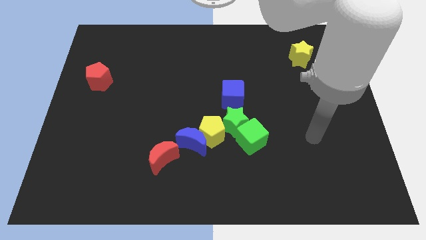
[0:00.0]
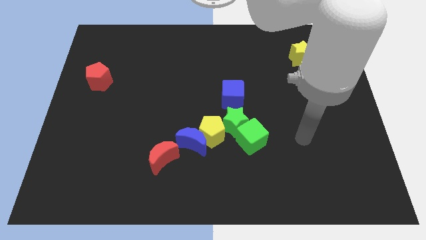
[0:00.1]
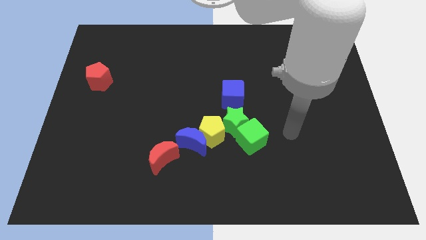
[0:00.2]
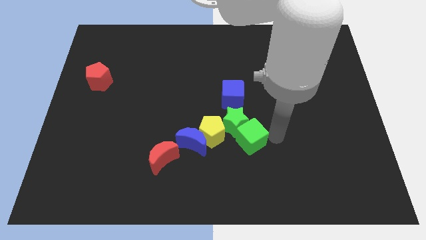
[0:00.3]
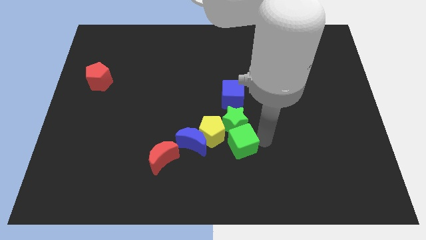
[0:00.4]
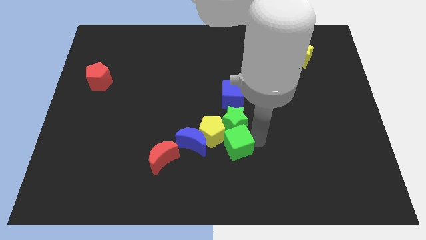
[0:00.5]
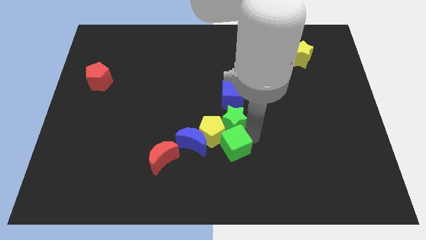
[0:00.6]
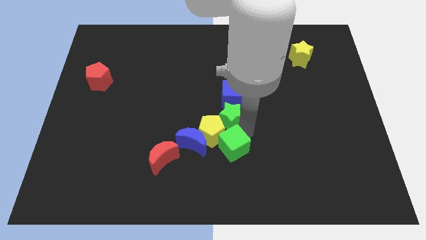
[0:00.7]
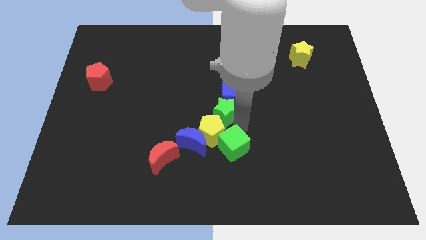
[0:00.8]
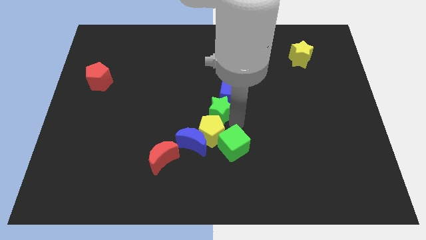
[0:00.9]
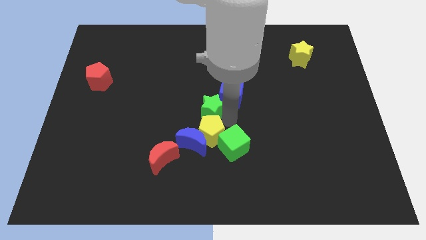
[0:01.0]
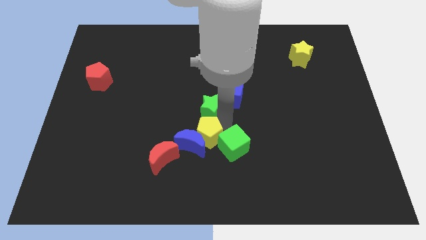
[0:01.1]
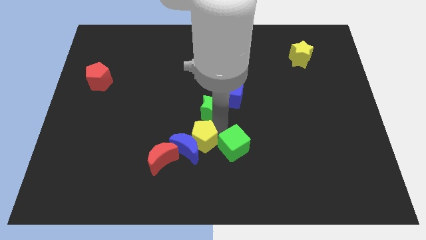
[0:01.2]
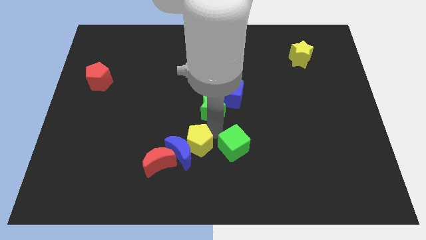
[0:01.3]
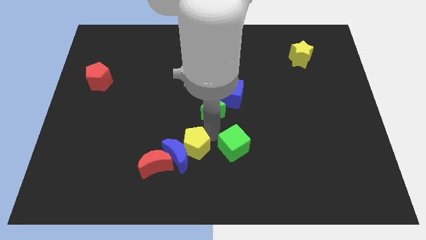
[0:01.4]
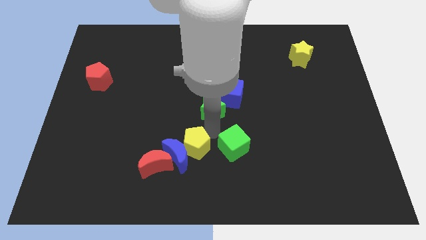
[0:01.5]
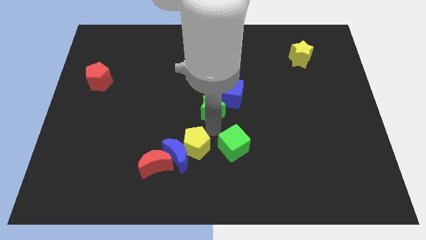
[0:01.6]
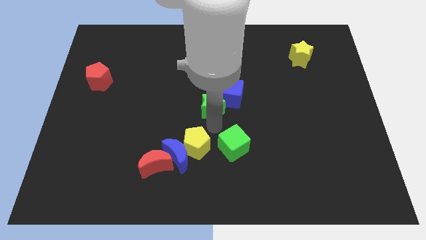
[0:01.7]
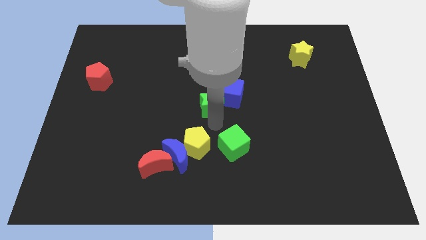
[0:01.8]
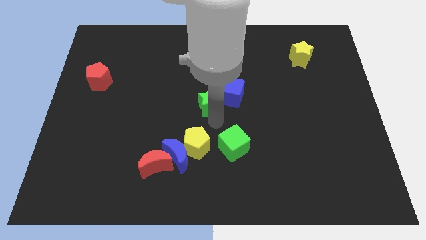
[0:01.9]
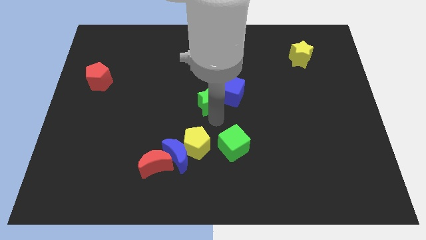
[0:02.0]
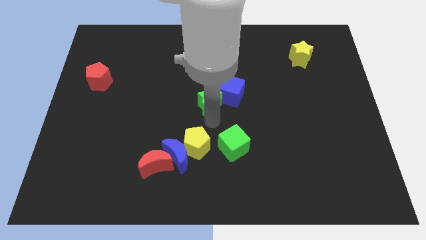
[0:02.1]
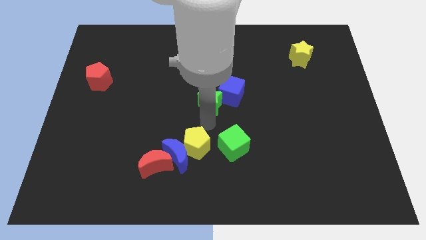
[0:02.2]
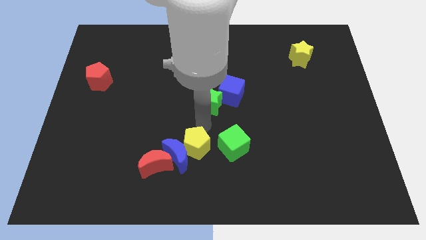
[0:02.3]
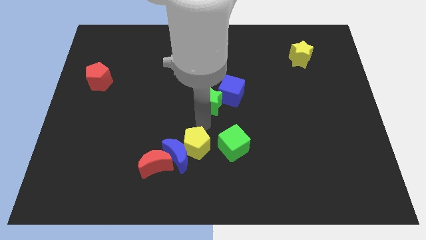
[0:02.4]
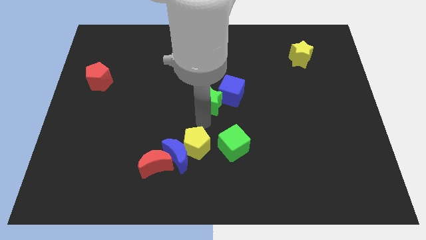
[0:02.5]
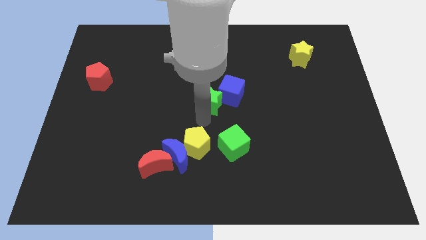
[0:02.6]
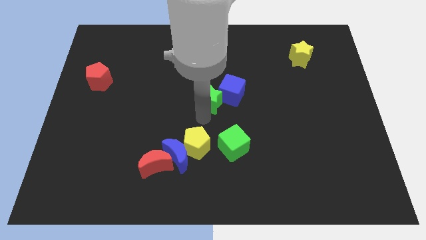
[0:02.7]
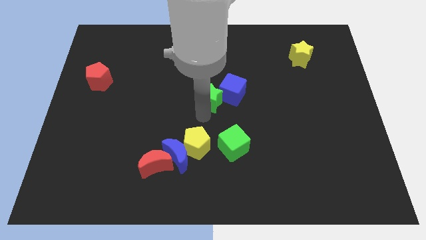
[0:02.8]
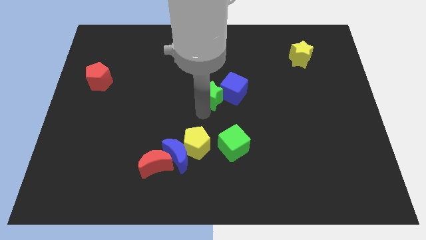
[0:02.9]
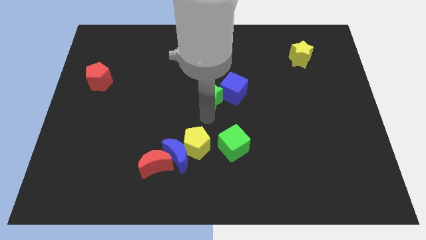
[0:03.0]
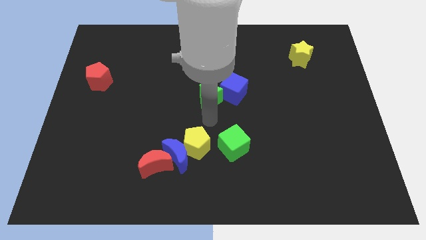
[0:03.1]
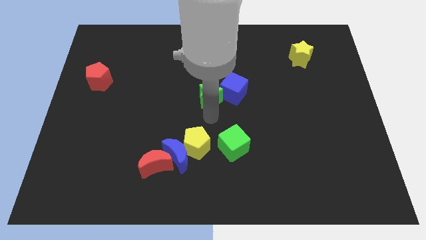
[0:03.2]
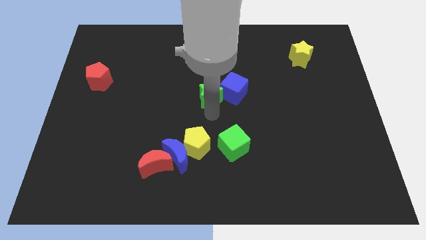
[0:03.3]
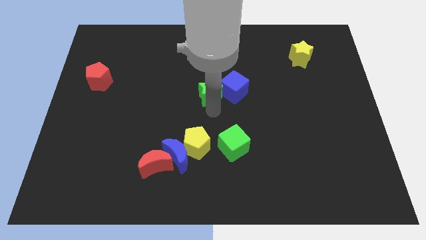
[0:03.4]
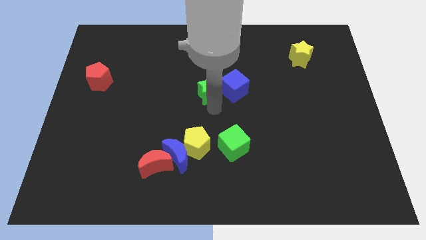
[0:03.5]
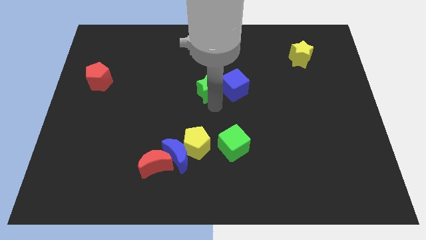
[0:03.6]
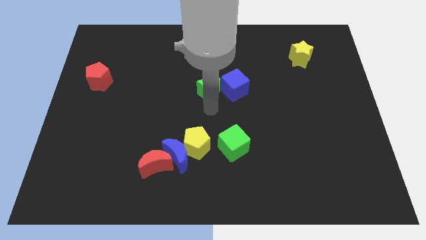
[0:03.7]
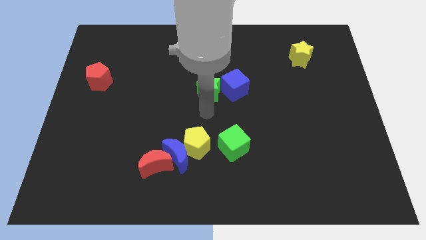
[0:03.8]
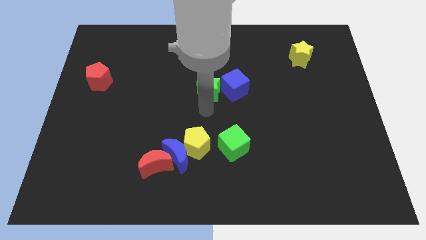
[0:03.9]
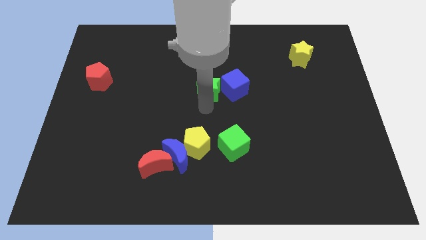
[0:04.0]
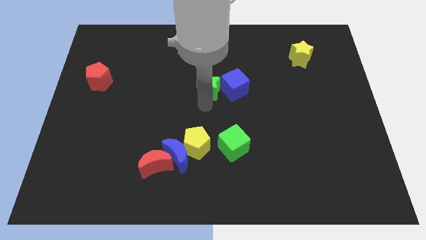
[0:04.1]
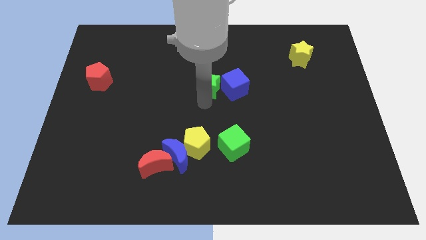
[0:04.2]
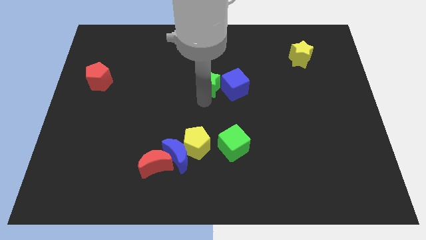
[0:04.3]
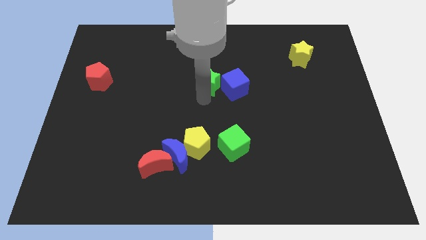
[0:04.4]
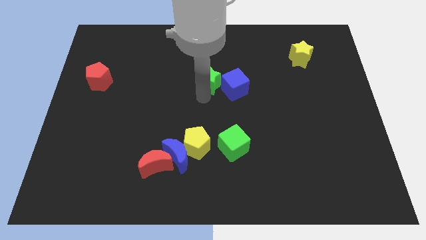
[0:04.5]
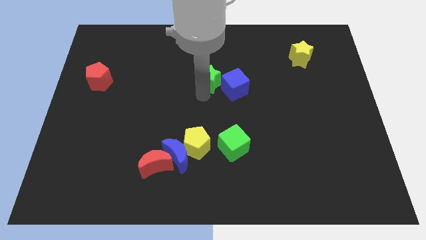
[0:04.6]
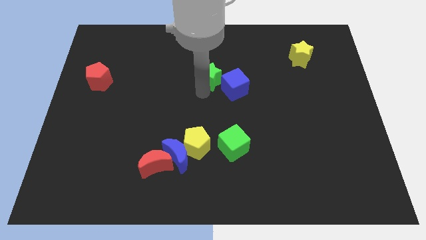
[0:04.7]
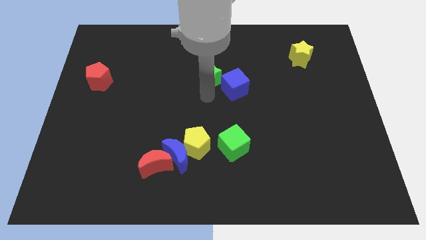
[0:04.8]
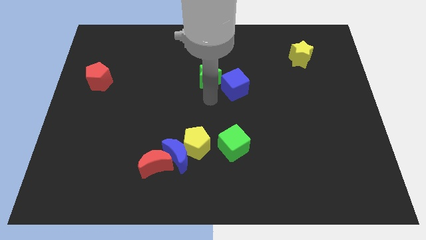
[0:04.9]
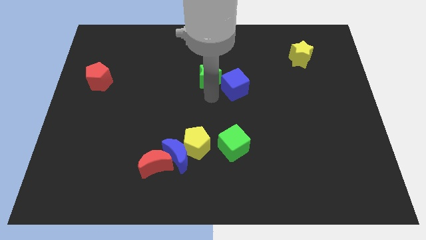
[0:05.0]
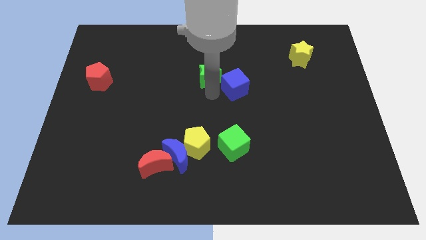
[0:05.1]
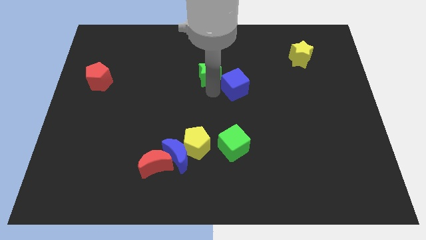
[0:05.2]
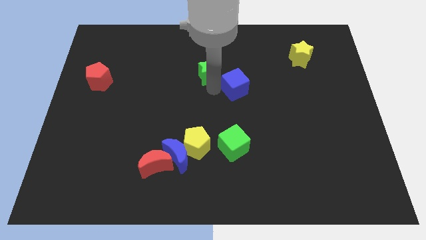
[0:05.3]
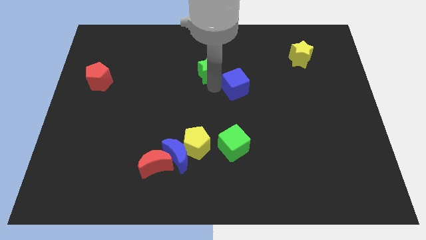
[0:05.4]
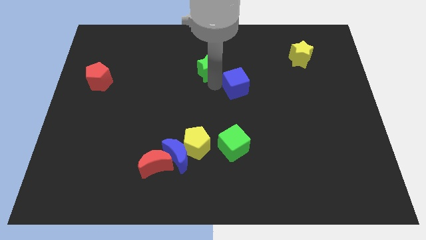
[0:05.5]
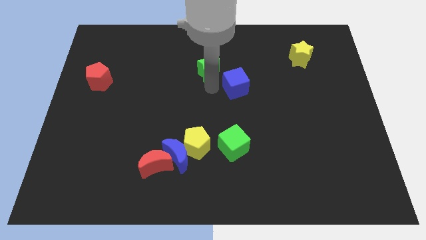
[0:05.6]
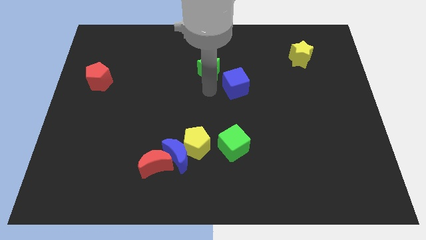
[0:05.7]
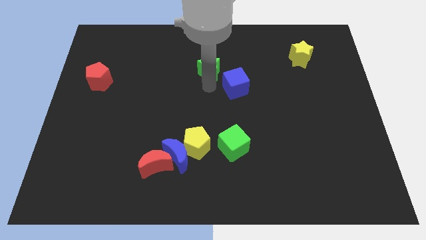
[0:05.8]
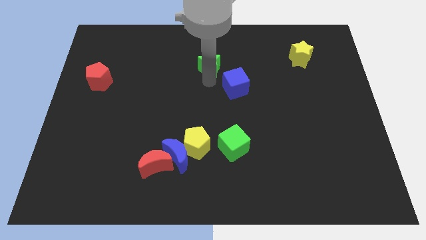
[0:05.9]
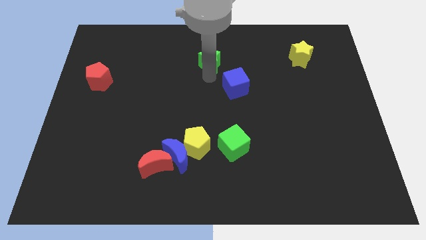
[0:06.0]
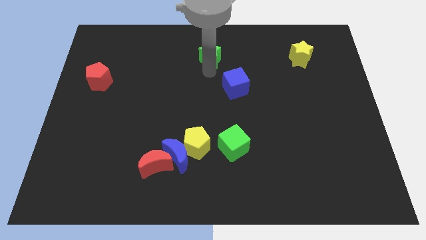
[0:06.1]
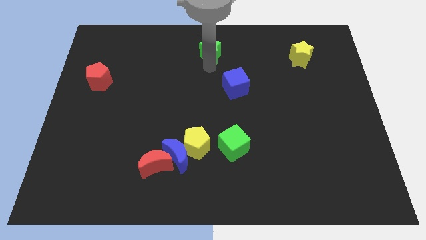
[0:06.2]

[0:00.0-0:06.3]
move the green star to the top side
